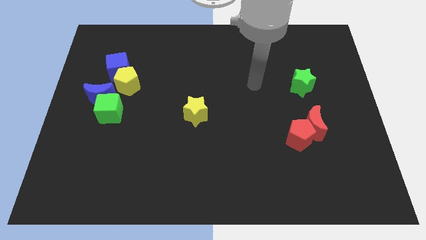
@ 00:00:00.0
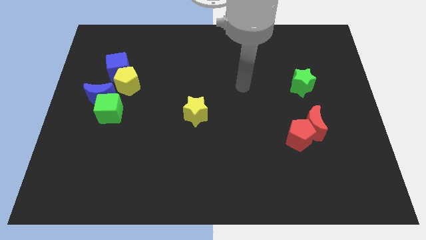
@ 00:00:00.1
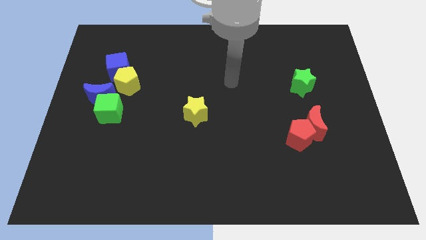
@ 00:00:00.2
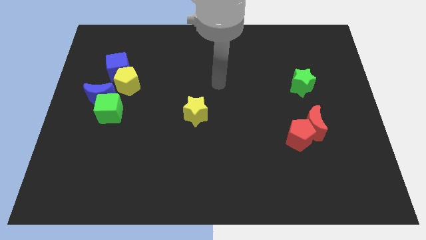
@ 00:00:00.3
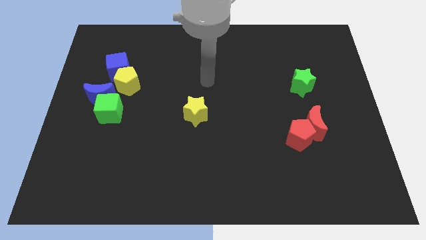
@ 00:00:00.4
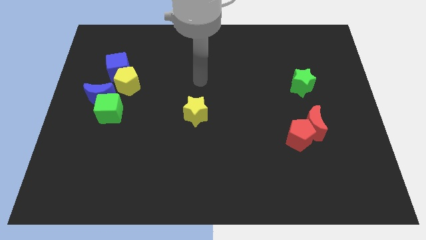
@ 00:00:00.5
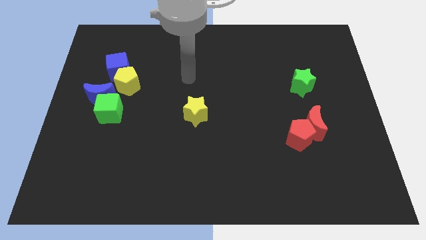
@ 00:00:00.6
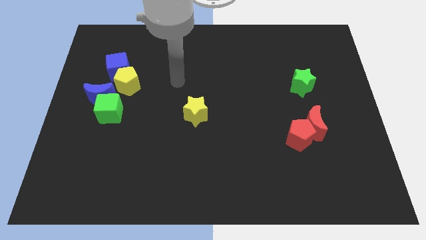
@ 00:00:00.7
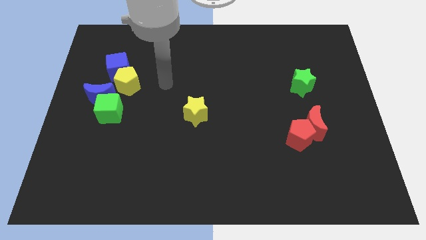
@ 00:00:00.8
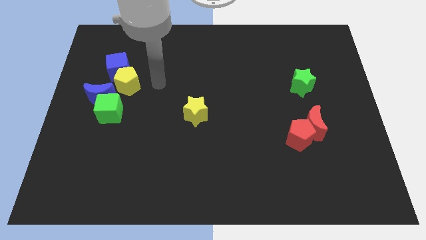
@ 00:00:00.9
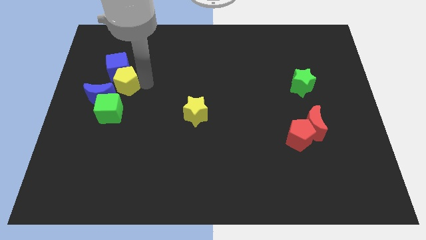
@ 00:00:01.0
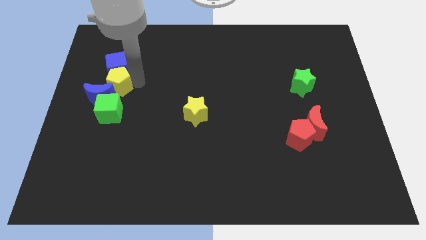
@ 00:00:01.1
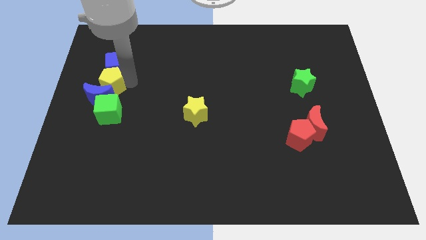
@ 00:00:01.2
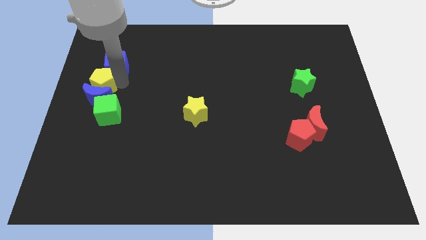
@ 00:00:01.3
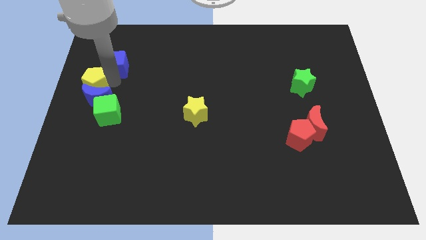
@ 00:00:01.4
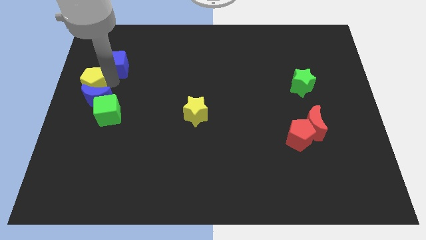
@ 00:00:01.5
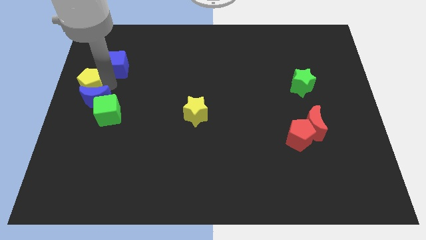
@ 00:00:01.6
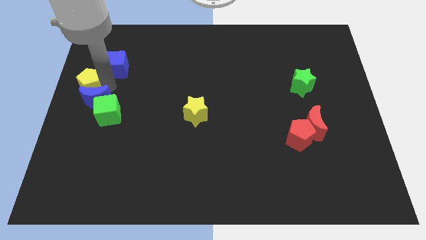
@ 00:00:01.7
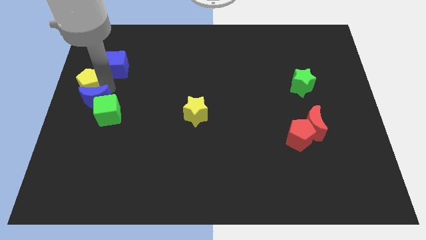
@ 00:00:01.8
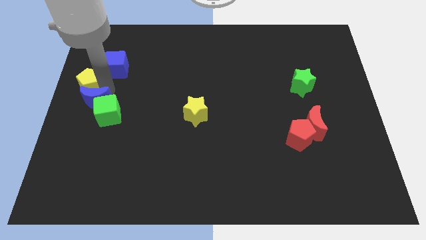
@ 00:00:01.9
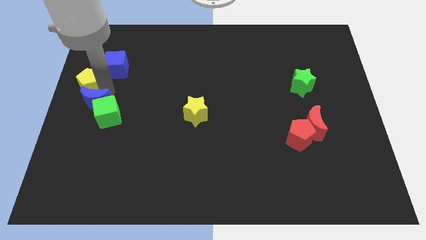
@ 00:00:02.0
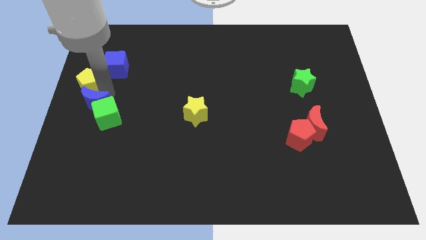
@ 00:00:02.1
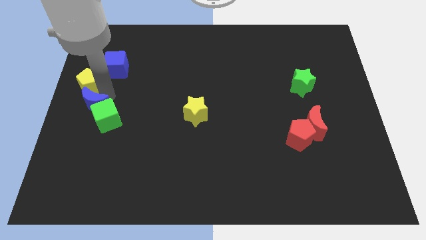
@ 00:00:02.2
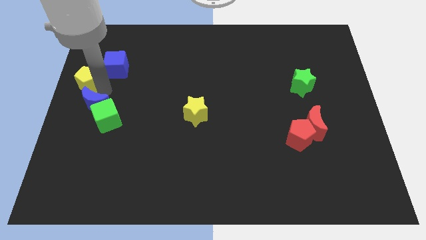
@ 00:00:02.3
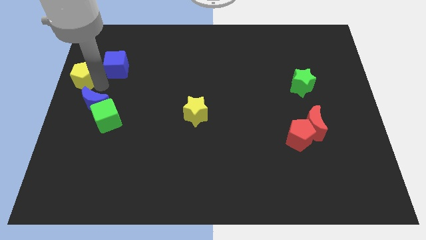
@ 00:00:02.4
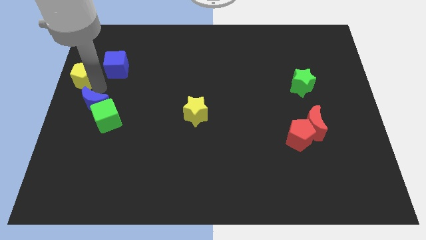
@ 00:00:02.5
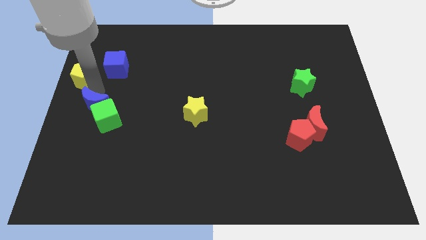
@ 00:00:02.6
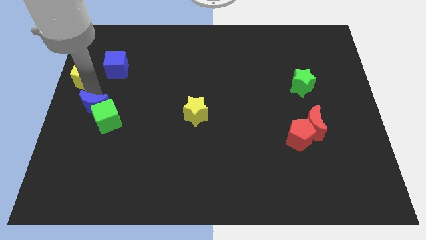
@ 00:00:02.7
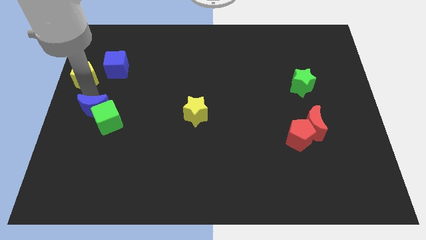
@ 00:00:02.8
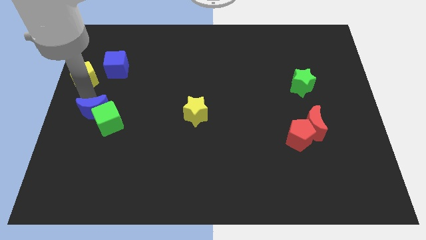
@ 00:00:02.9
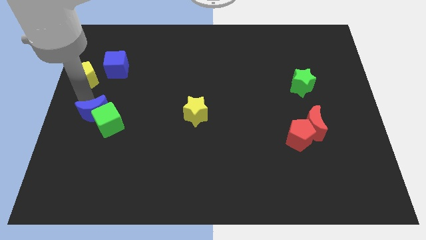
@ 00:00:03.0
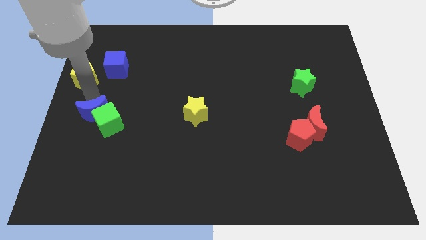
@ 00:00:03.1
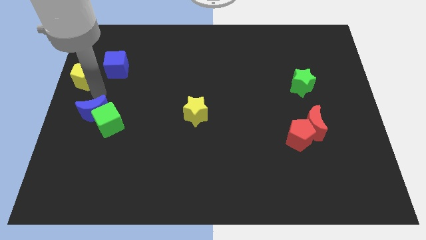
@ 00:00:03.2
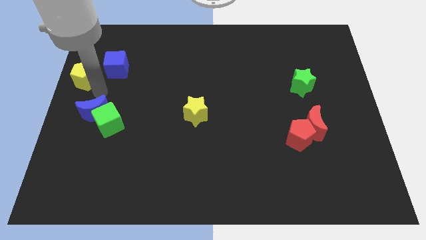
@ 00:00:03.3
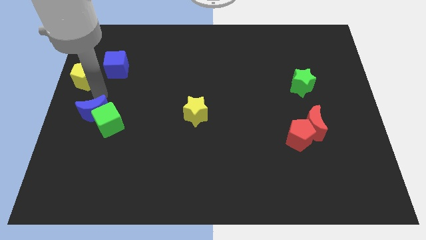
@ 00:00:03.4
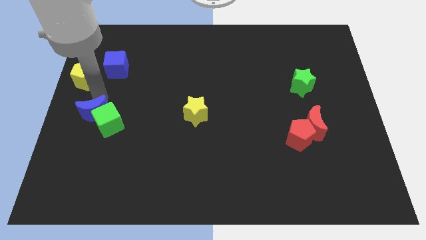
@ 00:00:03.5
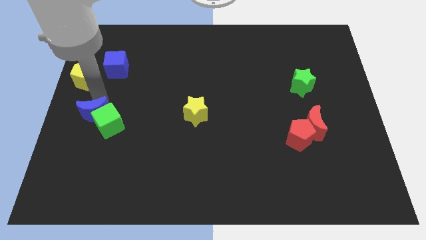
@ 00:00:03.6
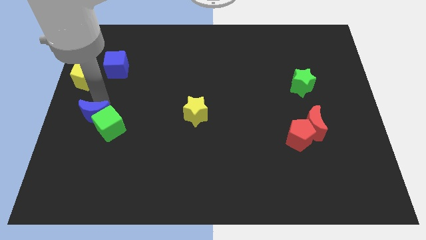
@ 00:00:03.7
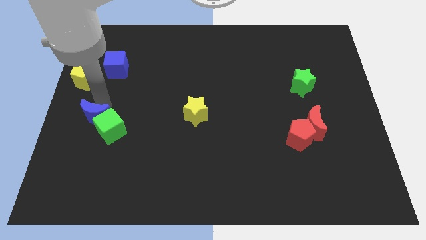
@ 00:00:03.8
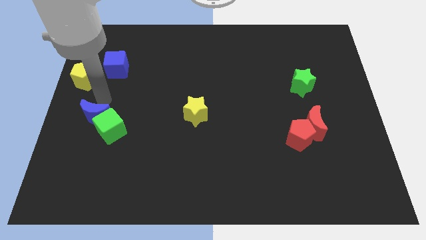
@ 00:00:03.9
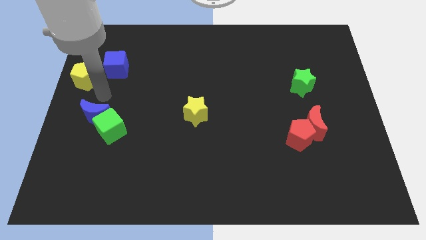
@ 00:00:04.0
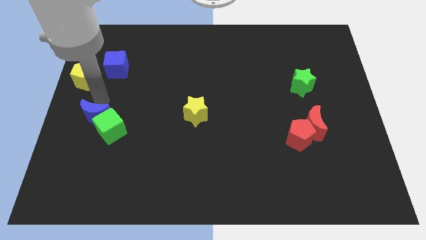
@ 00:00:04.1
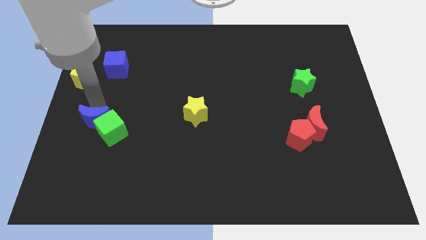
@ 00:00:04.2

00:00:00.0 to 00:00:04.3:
slightly move the blue moon downwards

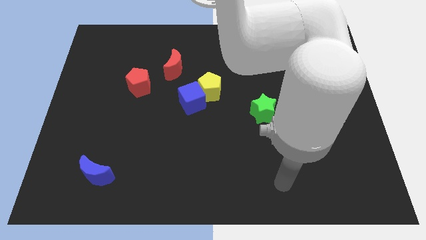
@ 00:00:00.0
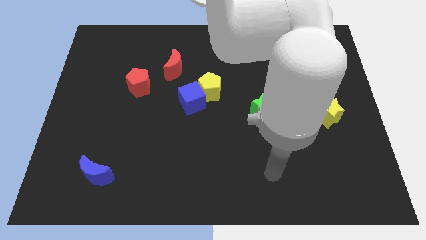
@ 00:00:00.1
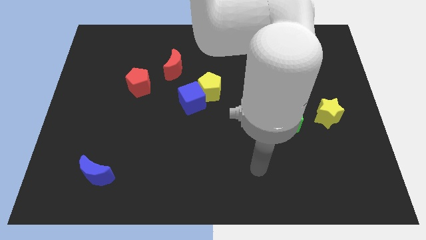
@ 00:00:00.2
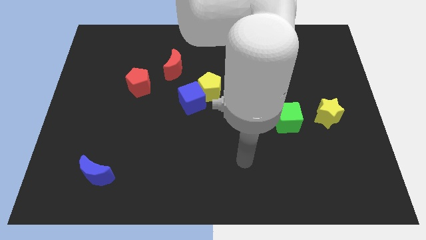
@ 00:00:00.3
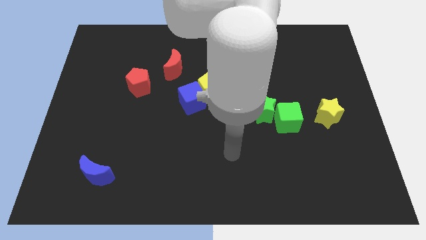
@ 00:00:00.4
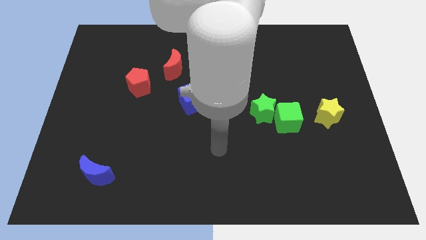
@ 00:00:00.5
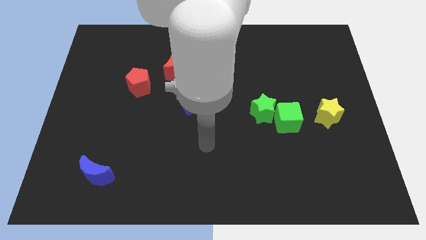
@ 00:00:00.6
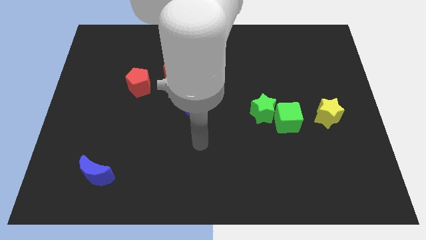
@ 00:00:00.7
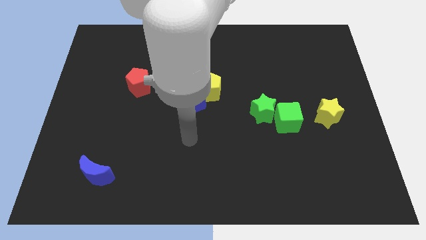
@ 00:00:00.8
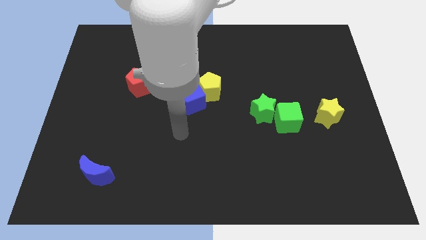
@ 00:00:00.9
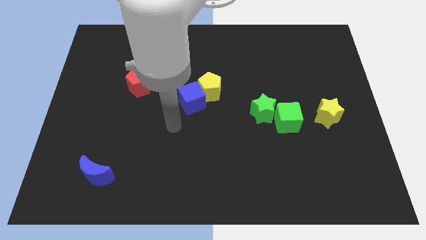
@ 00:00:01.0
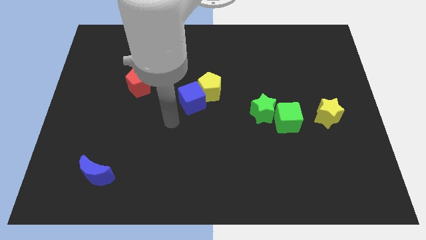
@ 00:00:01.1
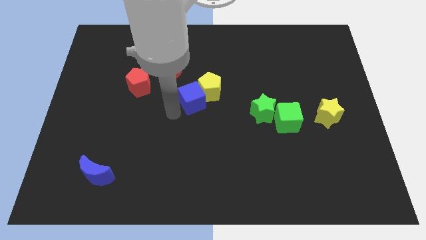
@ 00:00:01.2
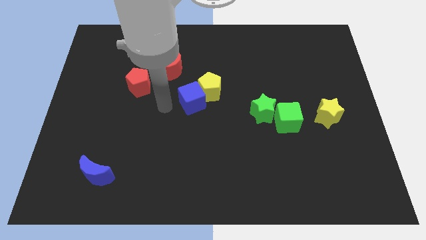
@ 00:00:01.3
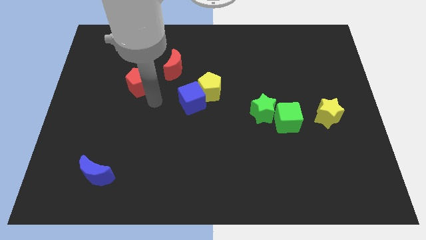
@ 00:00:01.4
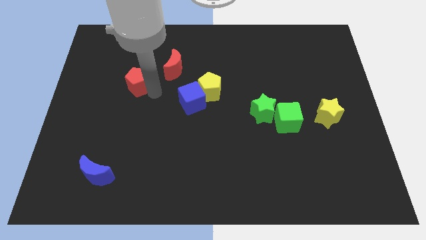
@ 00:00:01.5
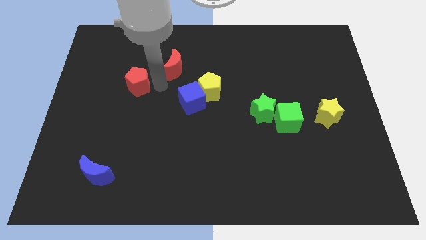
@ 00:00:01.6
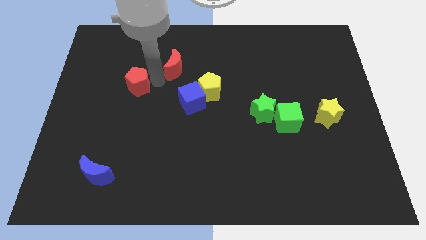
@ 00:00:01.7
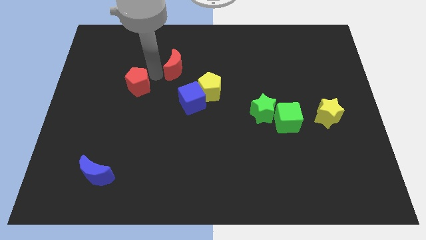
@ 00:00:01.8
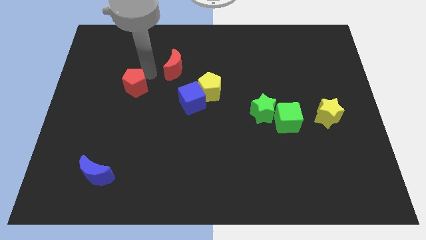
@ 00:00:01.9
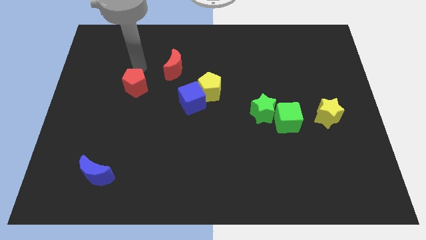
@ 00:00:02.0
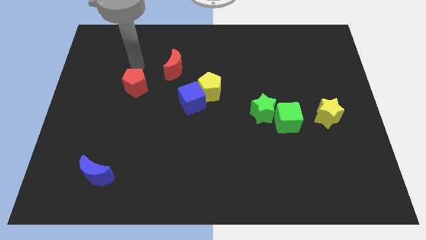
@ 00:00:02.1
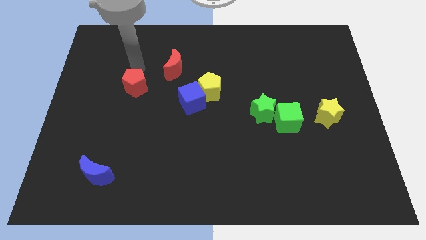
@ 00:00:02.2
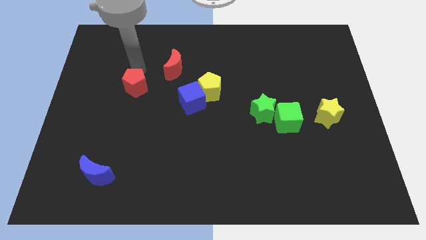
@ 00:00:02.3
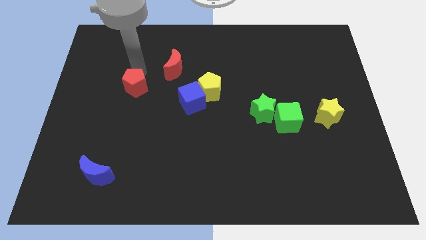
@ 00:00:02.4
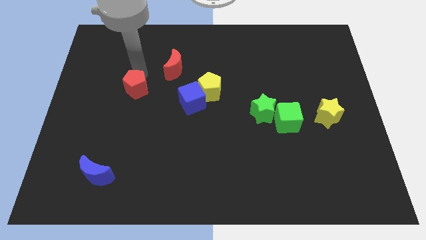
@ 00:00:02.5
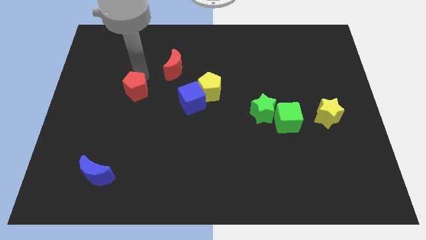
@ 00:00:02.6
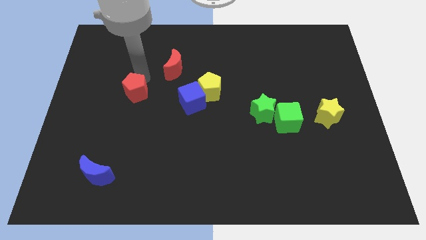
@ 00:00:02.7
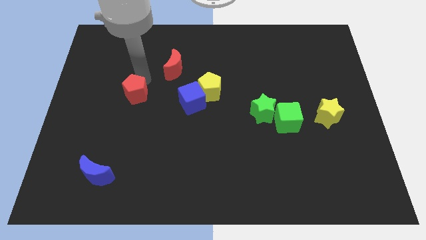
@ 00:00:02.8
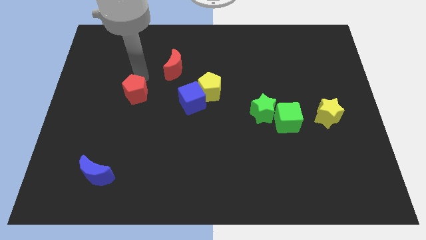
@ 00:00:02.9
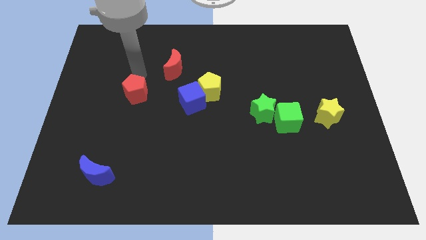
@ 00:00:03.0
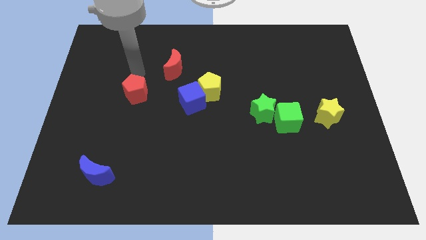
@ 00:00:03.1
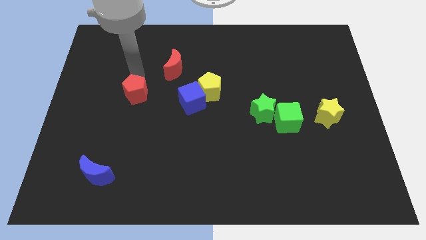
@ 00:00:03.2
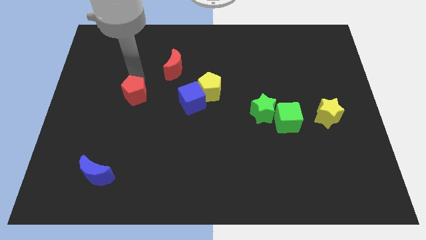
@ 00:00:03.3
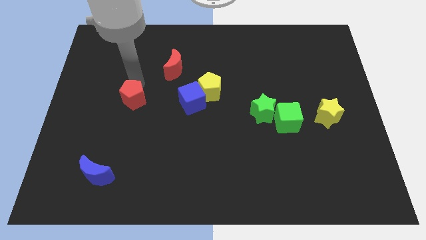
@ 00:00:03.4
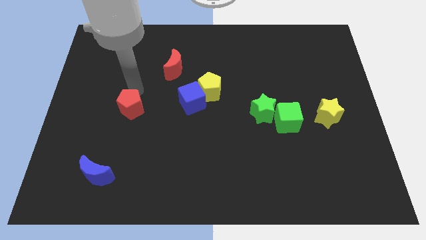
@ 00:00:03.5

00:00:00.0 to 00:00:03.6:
slide the red pentagon somewhat downwards
